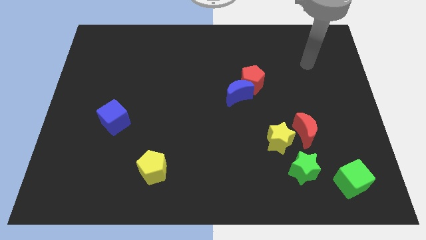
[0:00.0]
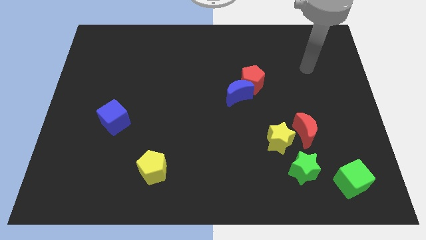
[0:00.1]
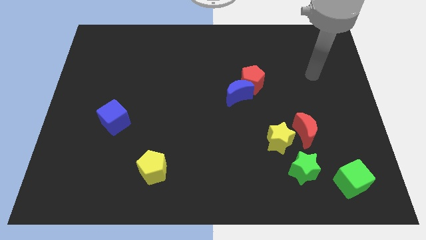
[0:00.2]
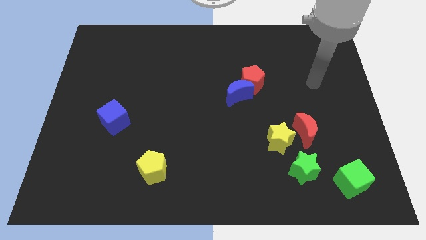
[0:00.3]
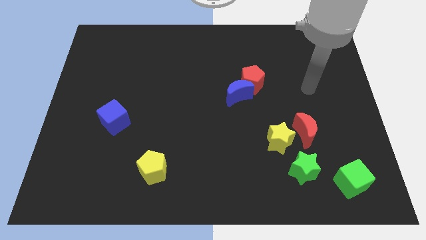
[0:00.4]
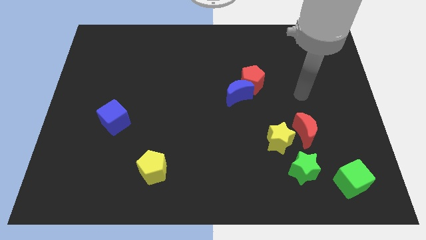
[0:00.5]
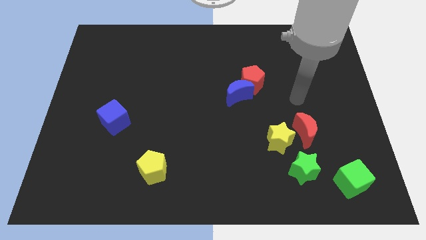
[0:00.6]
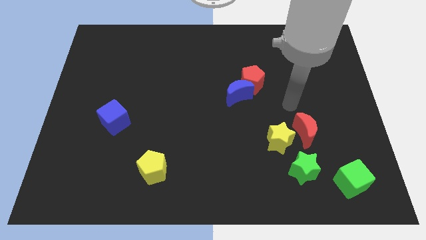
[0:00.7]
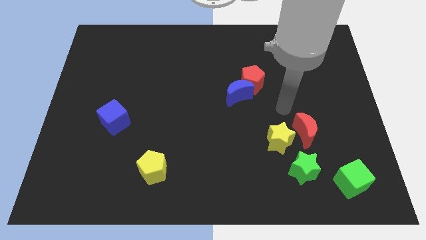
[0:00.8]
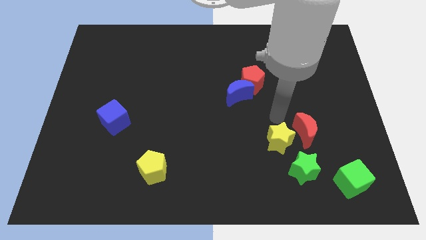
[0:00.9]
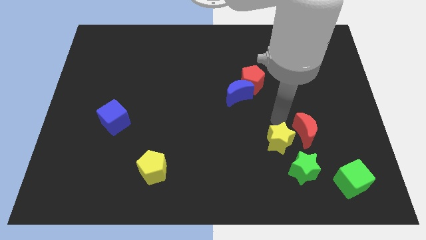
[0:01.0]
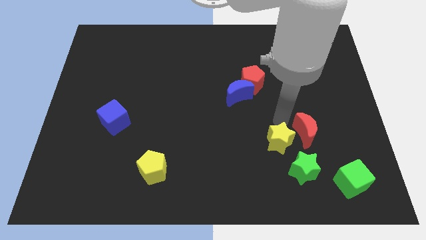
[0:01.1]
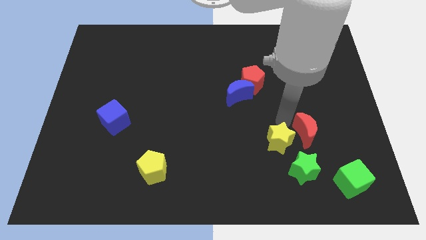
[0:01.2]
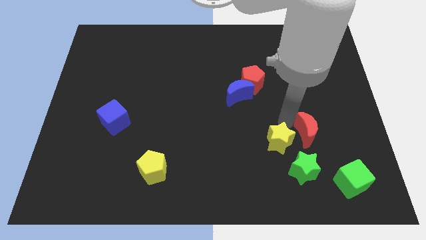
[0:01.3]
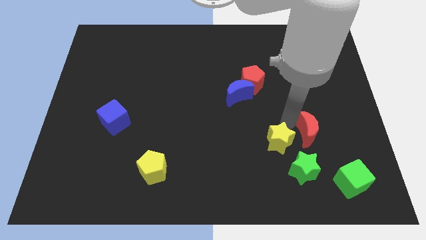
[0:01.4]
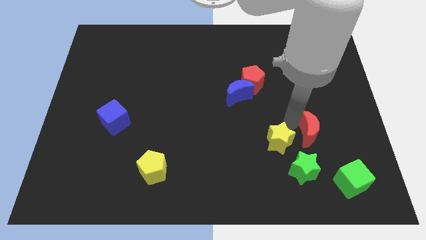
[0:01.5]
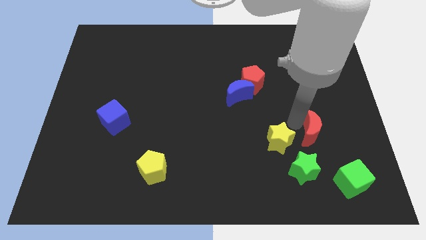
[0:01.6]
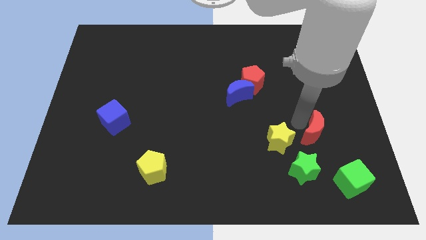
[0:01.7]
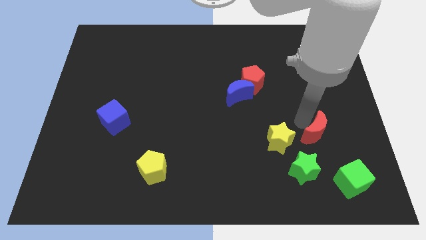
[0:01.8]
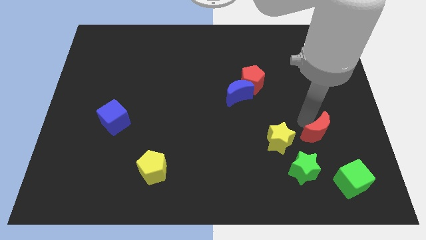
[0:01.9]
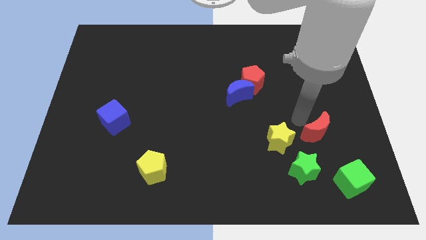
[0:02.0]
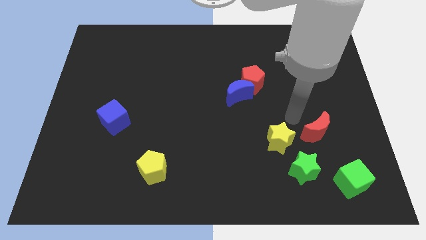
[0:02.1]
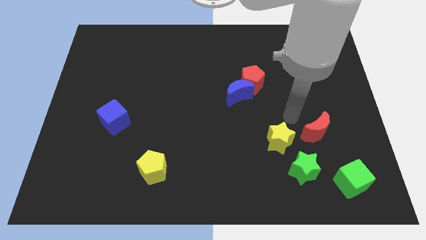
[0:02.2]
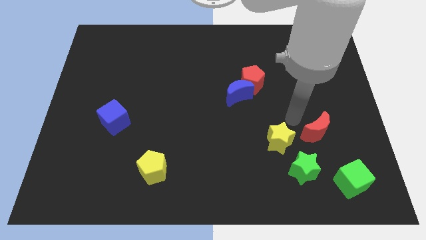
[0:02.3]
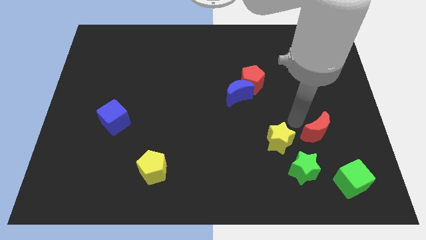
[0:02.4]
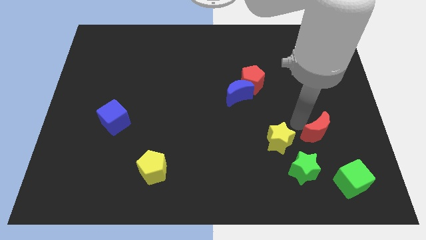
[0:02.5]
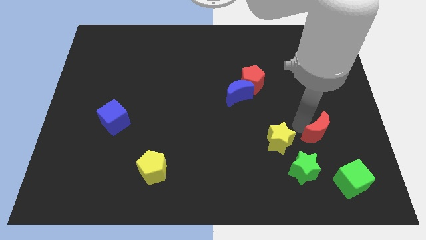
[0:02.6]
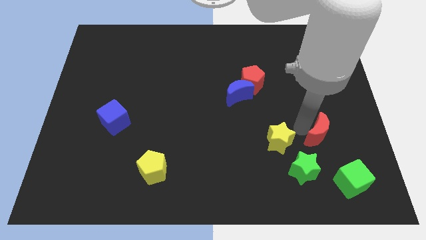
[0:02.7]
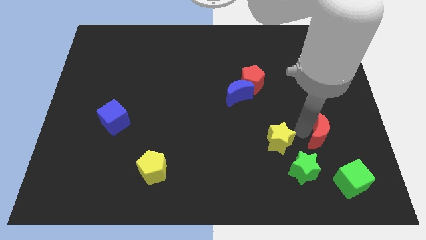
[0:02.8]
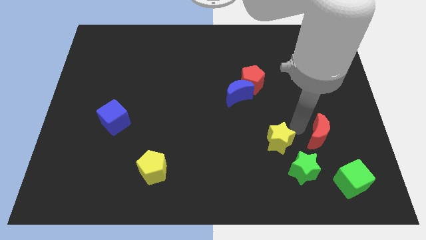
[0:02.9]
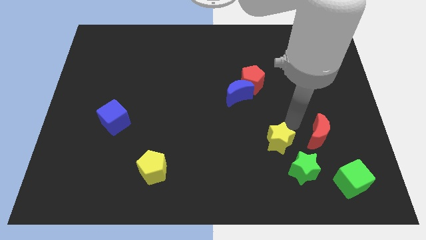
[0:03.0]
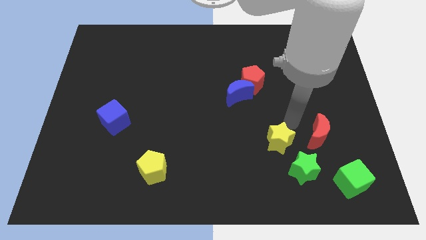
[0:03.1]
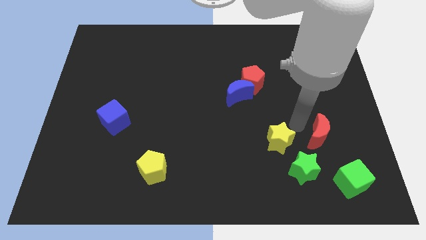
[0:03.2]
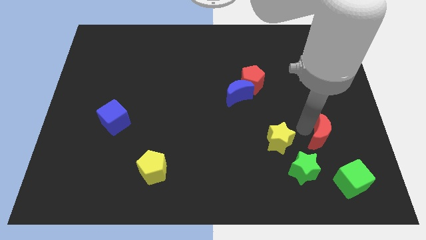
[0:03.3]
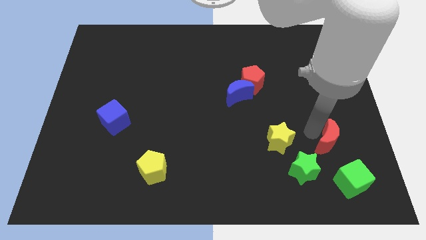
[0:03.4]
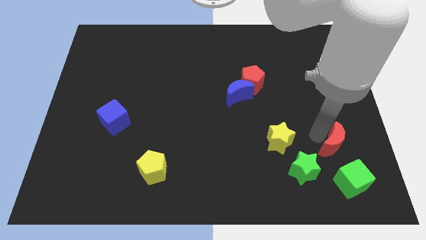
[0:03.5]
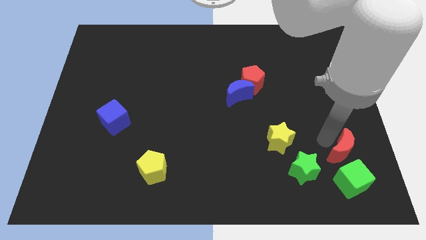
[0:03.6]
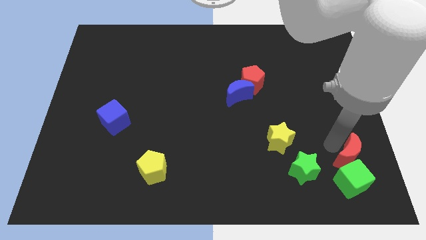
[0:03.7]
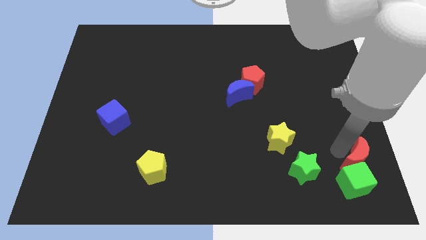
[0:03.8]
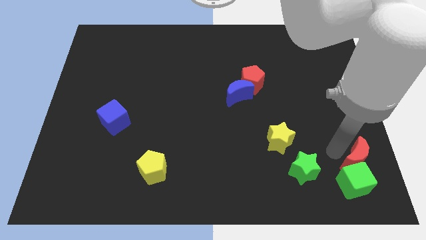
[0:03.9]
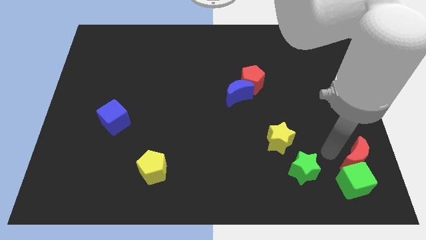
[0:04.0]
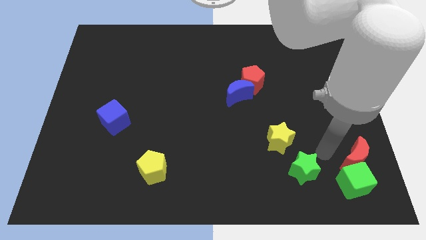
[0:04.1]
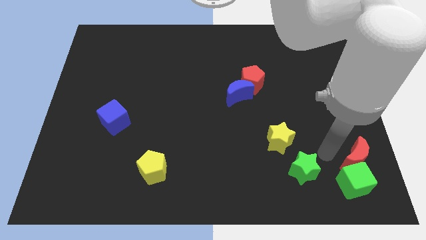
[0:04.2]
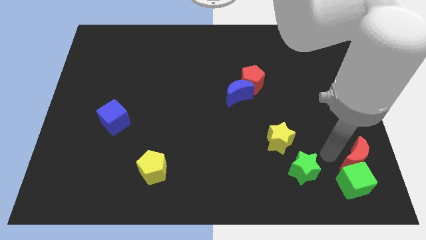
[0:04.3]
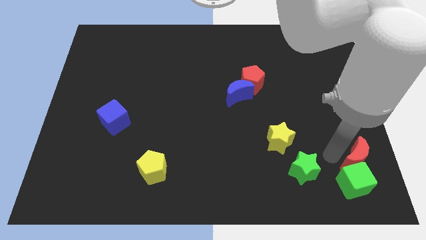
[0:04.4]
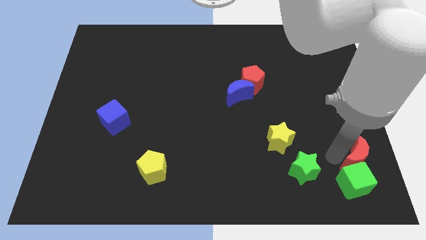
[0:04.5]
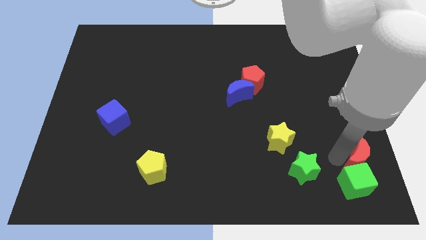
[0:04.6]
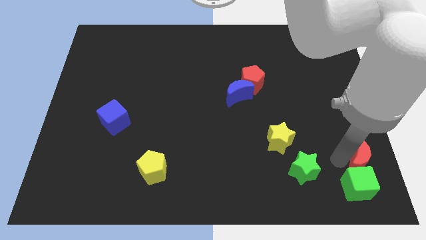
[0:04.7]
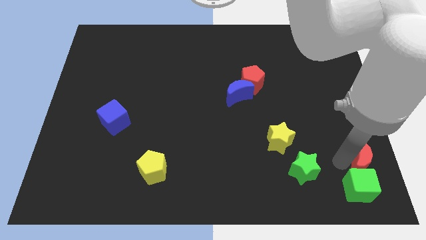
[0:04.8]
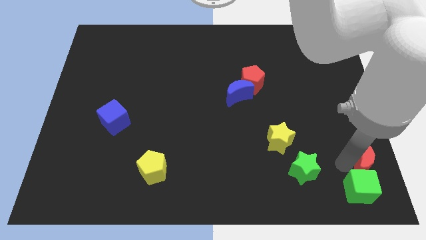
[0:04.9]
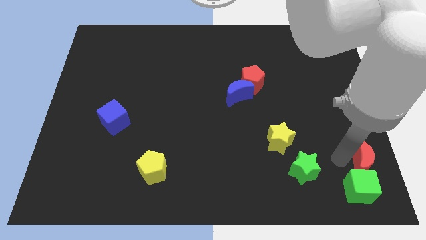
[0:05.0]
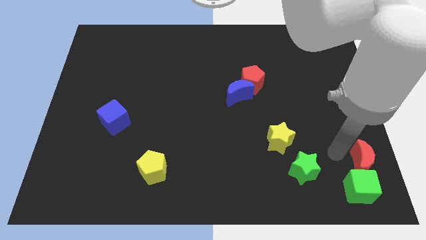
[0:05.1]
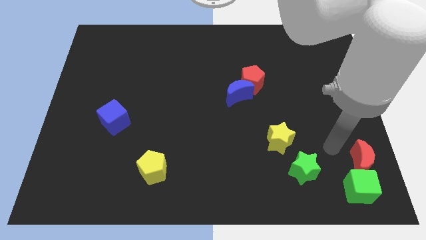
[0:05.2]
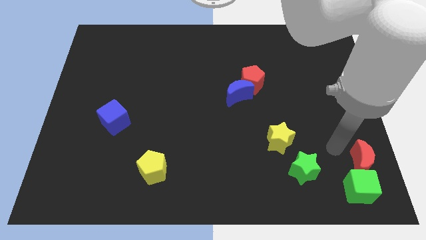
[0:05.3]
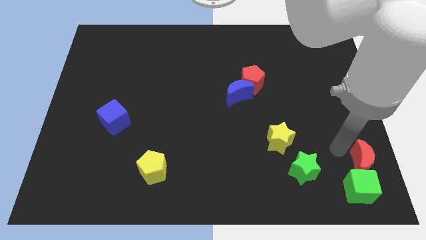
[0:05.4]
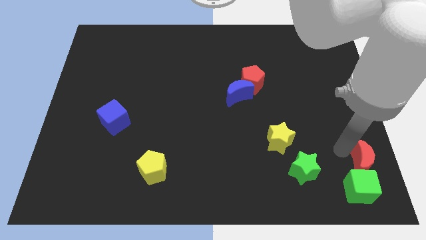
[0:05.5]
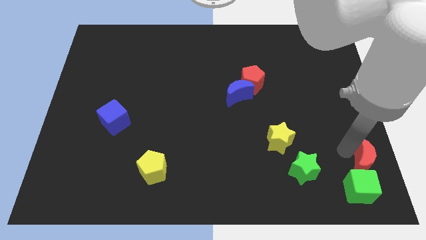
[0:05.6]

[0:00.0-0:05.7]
push the red moon to the bottom right corner

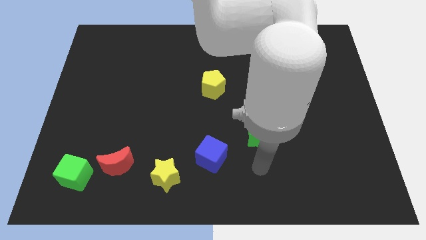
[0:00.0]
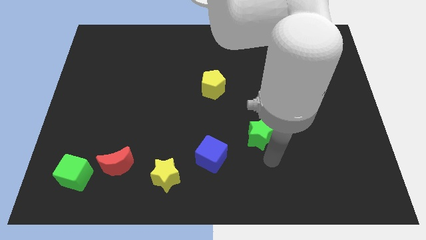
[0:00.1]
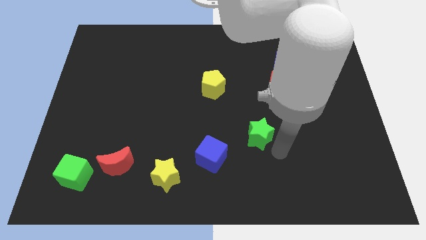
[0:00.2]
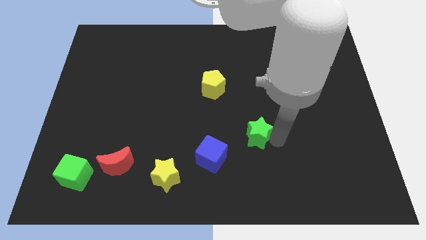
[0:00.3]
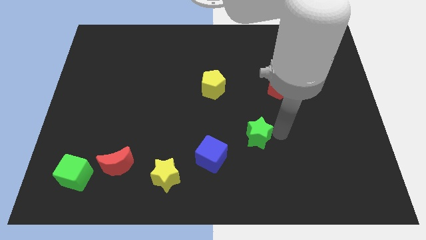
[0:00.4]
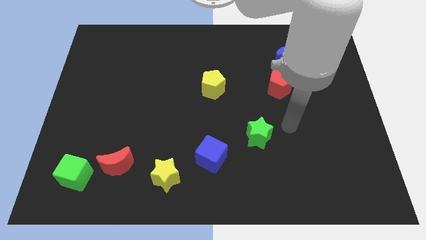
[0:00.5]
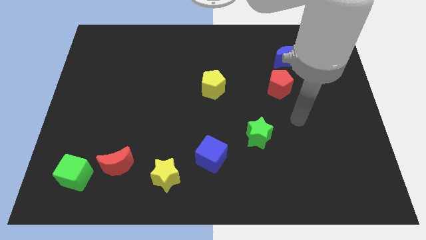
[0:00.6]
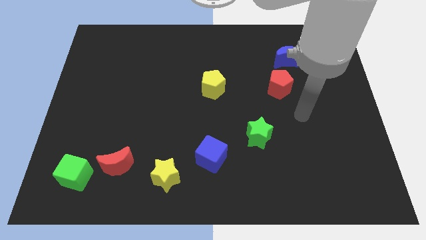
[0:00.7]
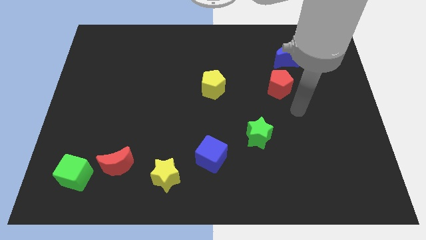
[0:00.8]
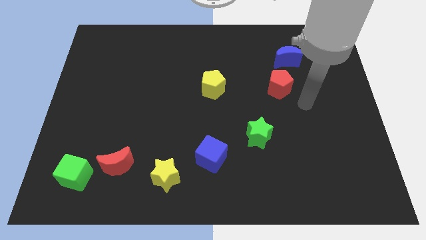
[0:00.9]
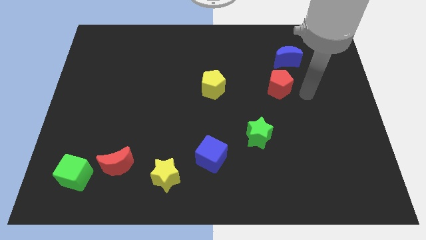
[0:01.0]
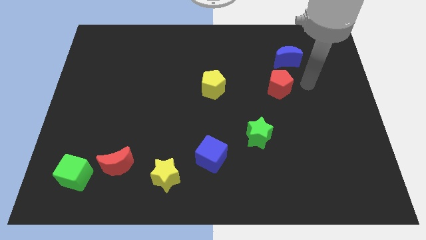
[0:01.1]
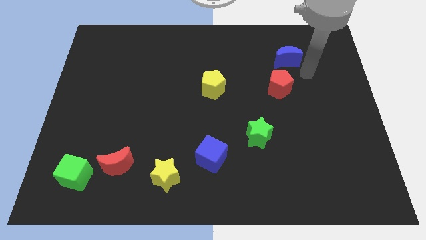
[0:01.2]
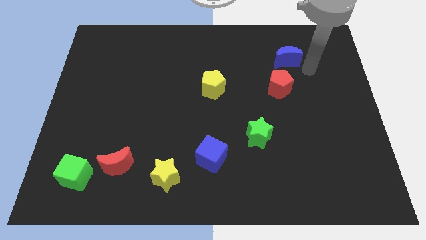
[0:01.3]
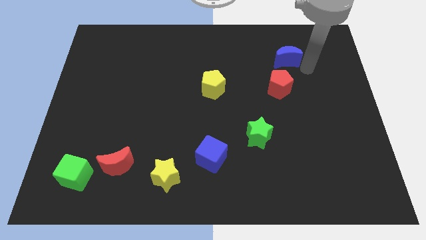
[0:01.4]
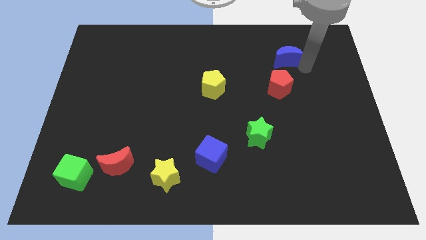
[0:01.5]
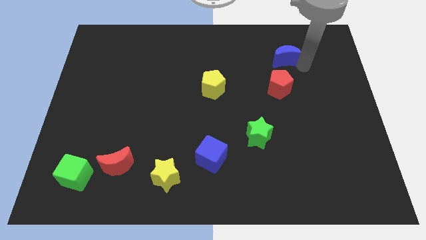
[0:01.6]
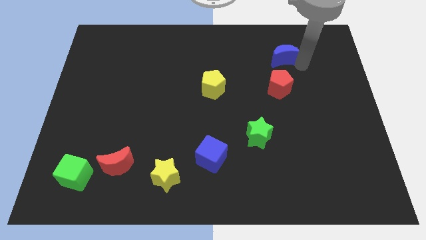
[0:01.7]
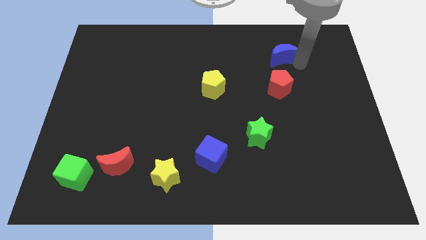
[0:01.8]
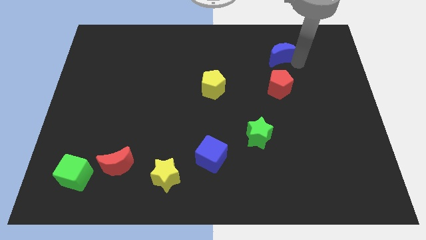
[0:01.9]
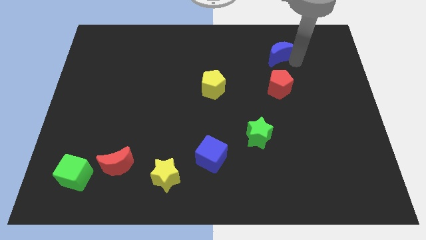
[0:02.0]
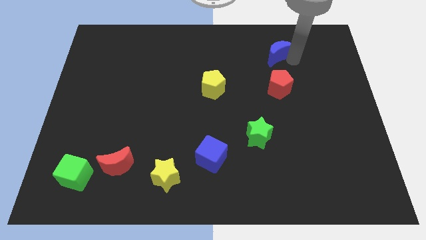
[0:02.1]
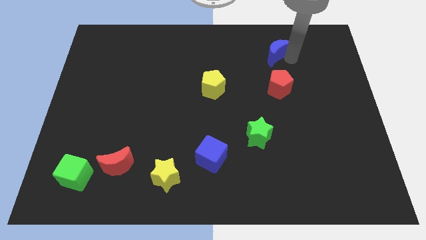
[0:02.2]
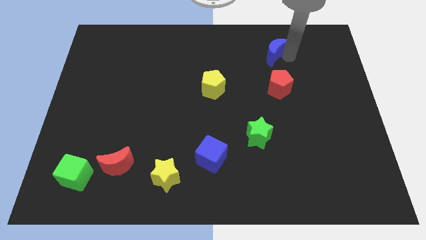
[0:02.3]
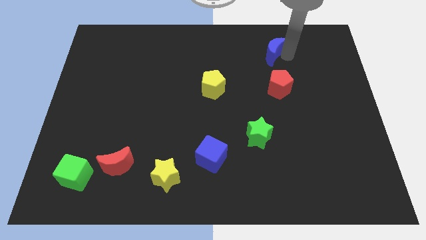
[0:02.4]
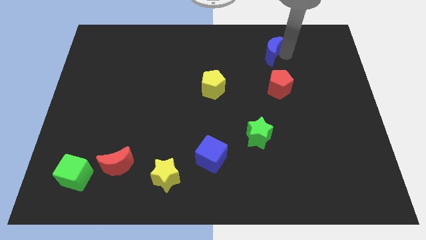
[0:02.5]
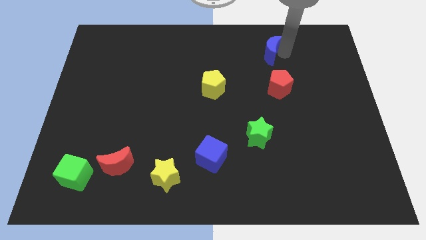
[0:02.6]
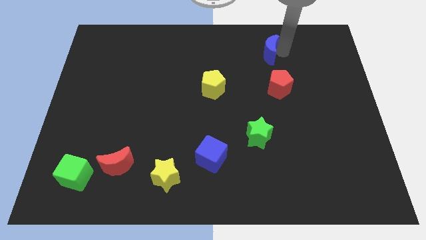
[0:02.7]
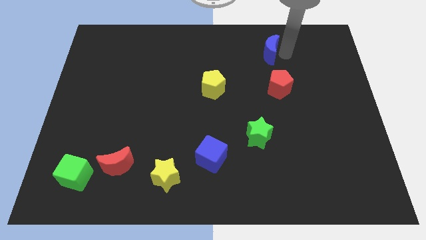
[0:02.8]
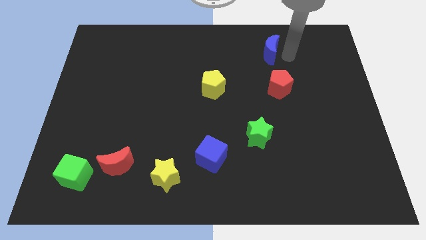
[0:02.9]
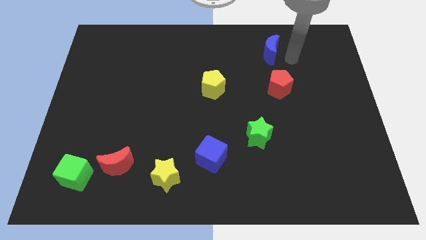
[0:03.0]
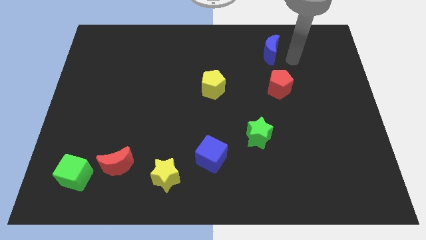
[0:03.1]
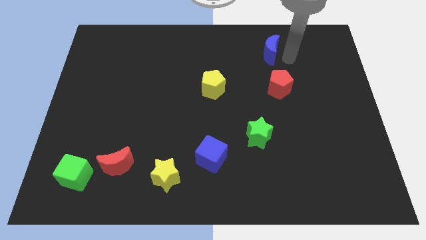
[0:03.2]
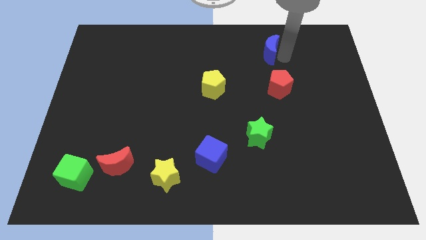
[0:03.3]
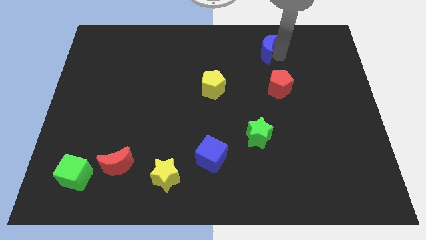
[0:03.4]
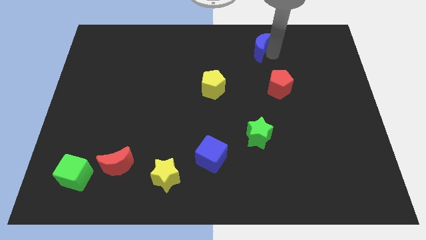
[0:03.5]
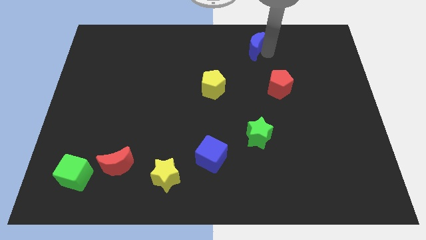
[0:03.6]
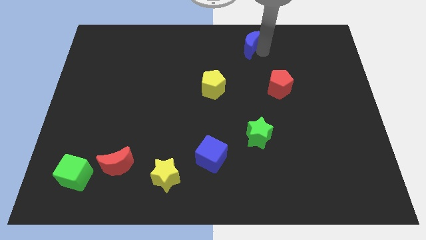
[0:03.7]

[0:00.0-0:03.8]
slide the blue moon to the top side
